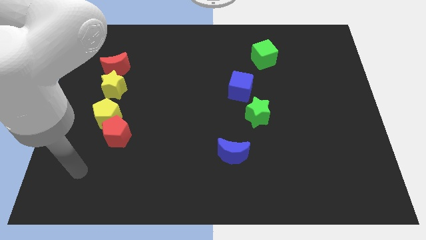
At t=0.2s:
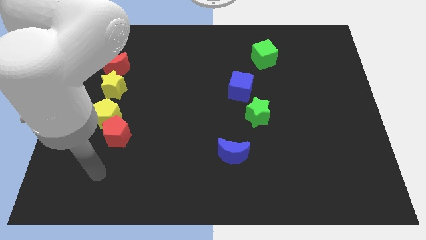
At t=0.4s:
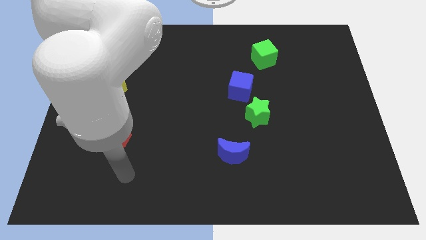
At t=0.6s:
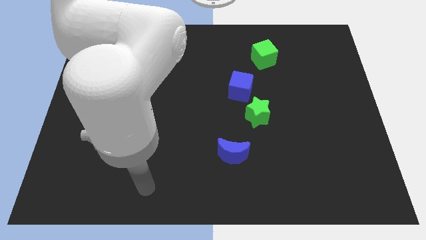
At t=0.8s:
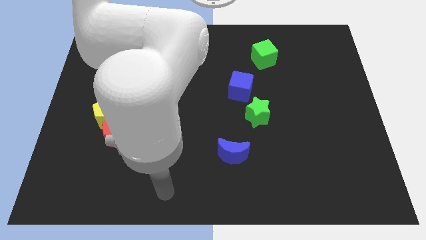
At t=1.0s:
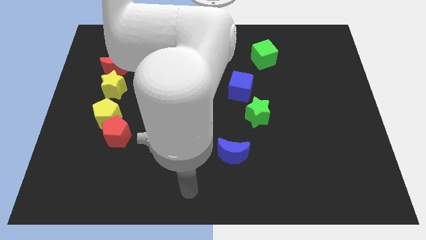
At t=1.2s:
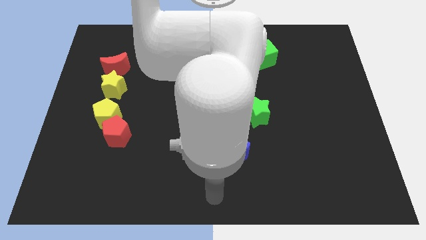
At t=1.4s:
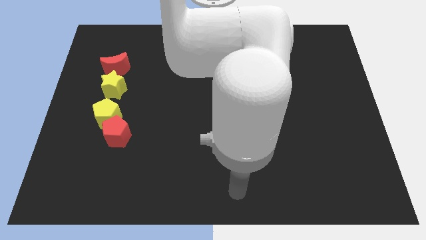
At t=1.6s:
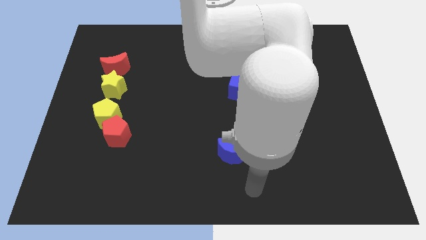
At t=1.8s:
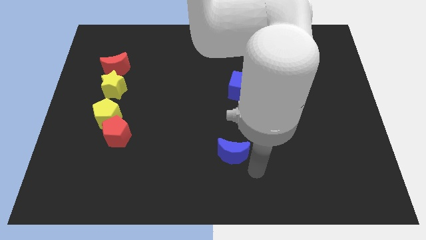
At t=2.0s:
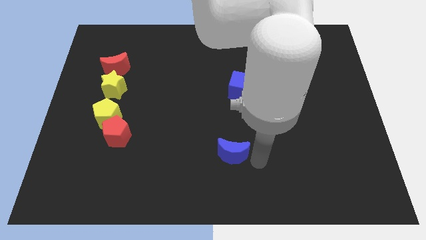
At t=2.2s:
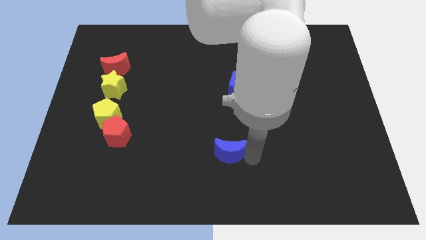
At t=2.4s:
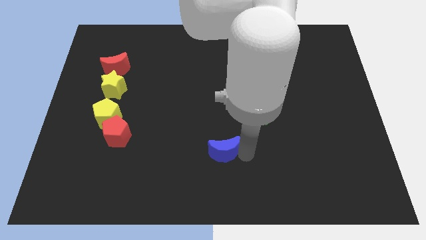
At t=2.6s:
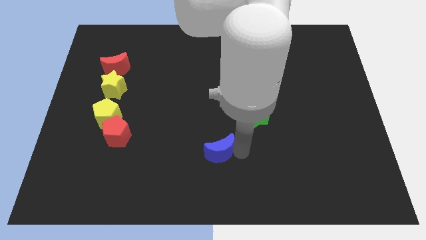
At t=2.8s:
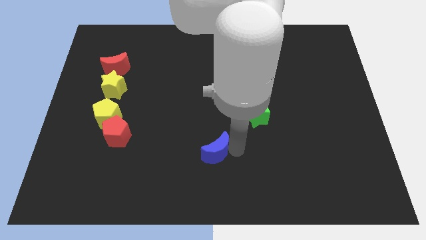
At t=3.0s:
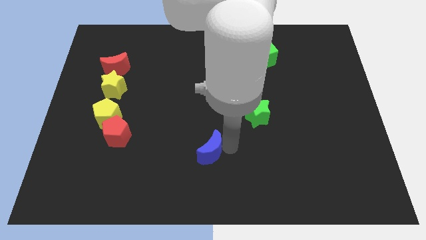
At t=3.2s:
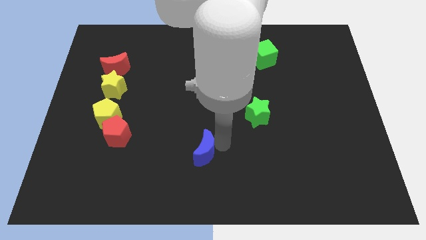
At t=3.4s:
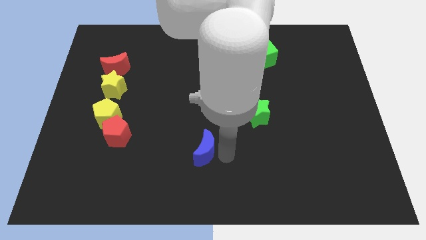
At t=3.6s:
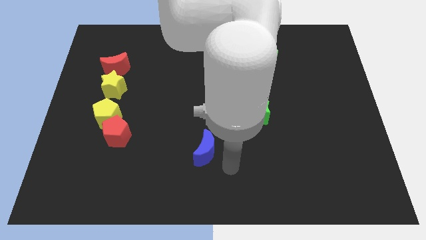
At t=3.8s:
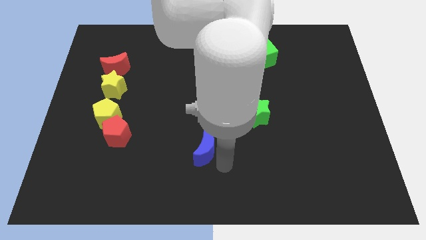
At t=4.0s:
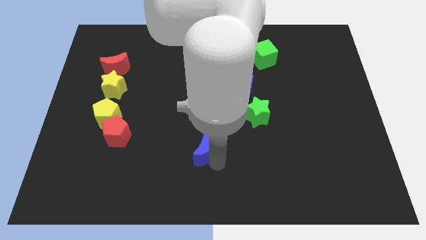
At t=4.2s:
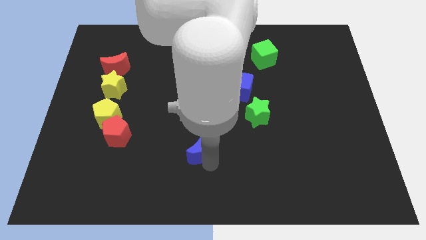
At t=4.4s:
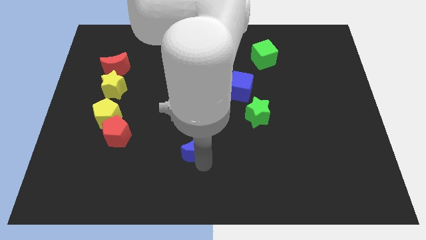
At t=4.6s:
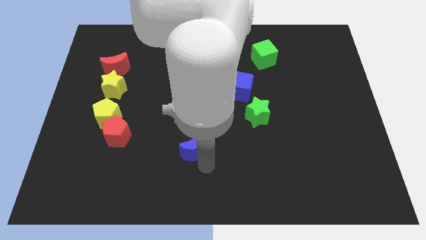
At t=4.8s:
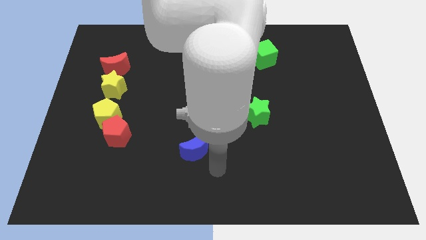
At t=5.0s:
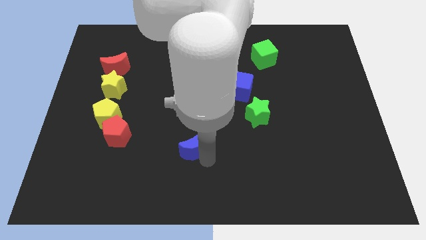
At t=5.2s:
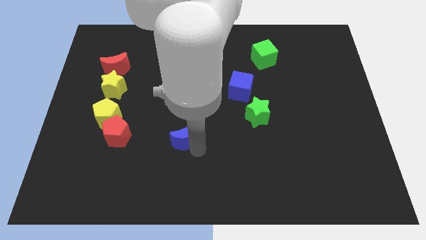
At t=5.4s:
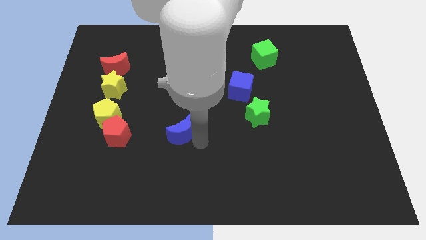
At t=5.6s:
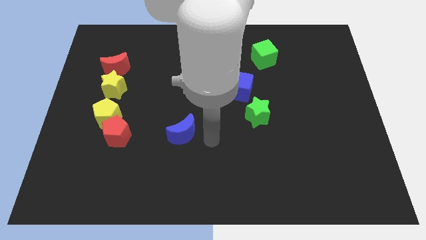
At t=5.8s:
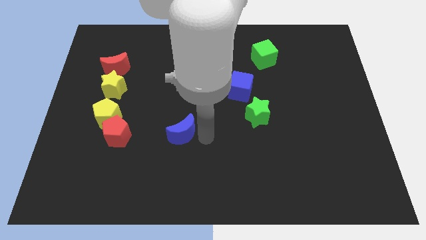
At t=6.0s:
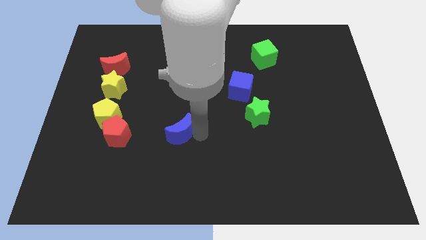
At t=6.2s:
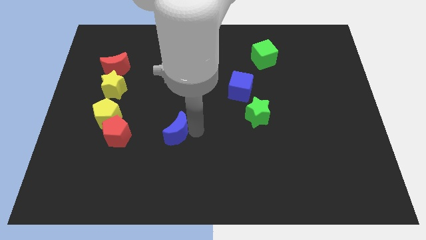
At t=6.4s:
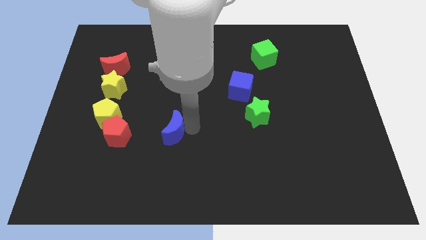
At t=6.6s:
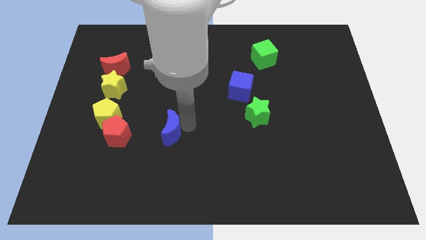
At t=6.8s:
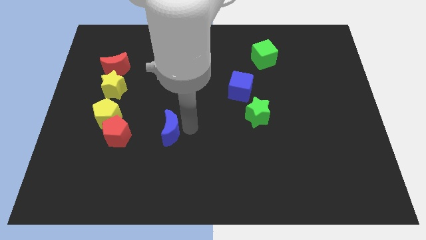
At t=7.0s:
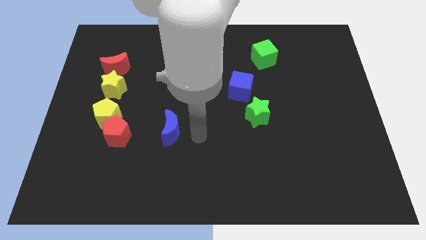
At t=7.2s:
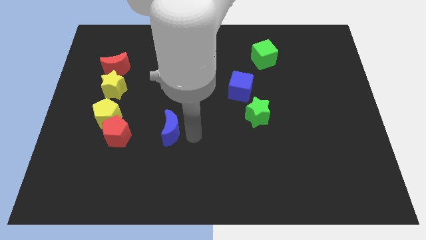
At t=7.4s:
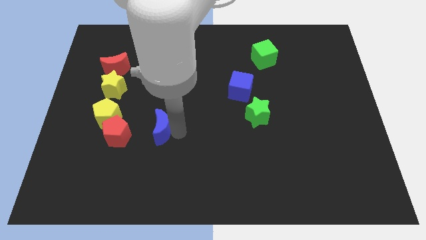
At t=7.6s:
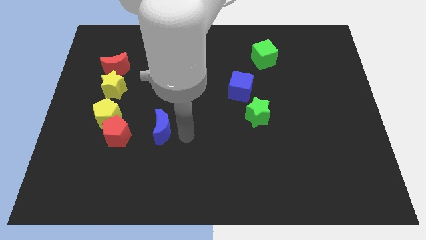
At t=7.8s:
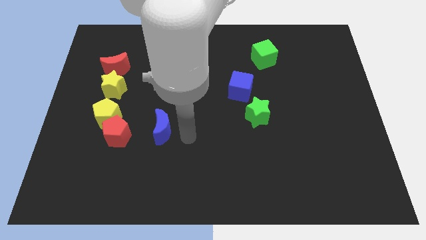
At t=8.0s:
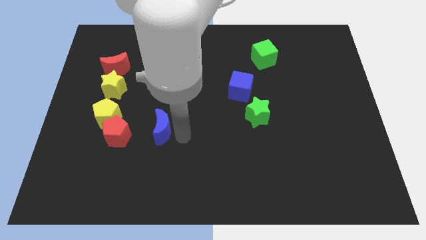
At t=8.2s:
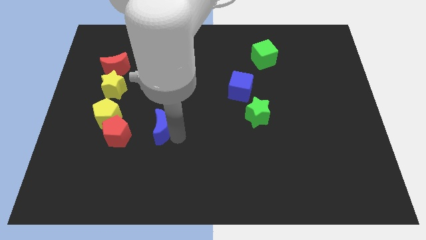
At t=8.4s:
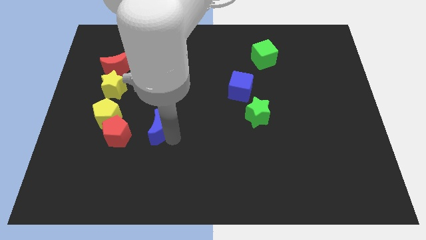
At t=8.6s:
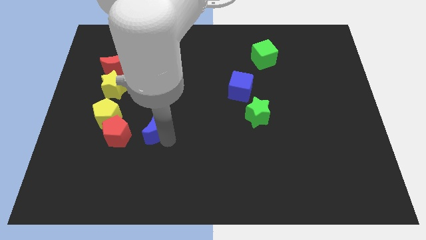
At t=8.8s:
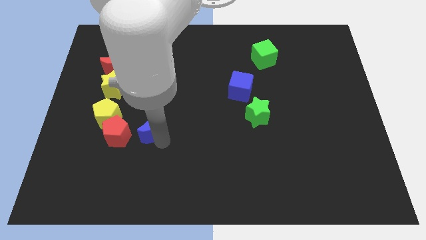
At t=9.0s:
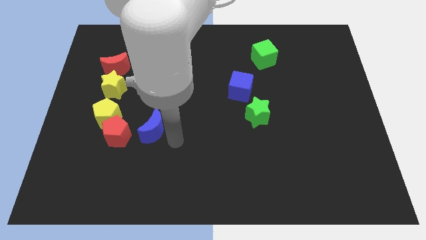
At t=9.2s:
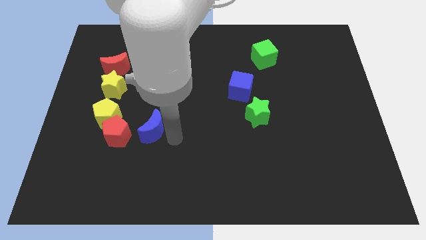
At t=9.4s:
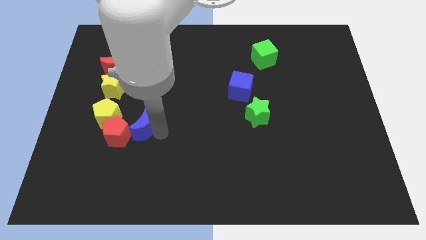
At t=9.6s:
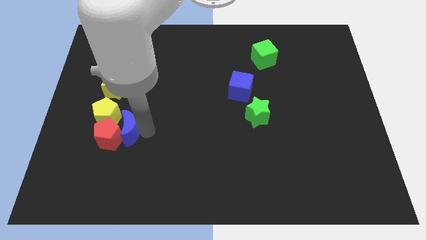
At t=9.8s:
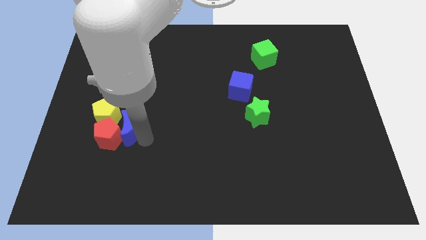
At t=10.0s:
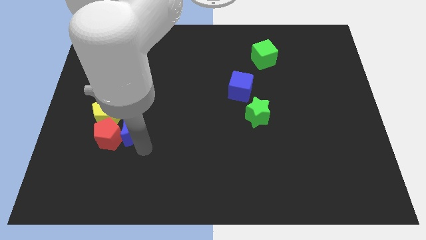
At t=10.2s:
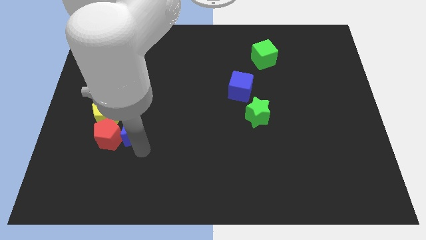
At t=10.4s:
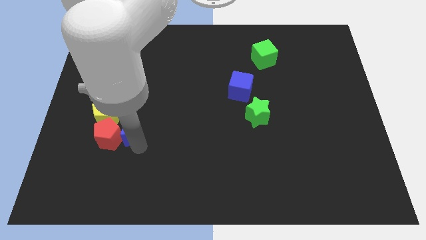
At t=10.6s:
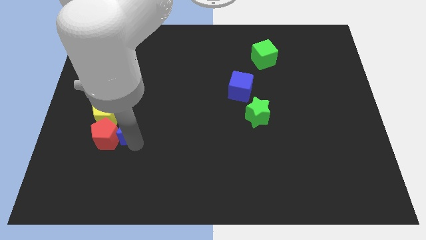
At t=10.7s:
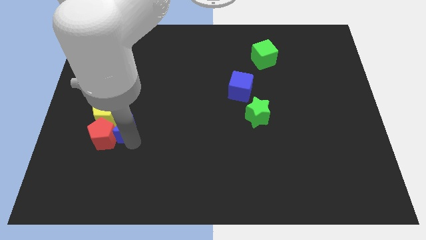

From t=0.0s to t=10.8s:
slide the blue moon close to the yellow pentagon

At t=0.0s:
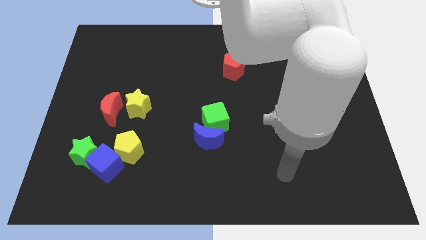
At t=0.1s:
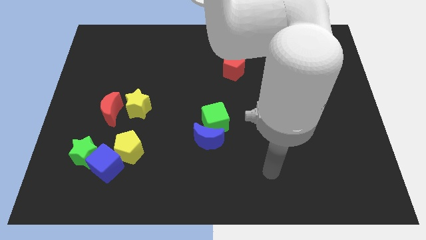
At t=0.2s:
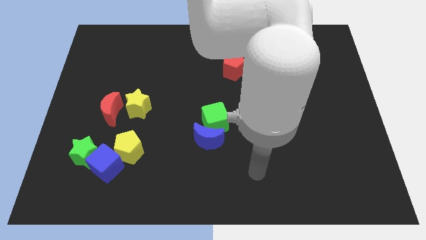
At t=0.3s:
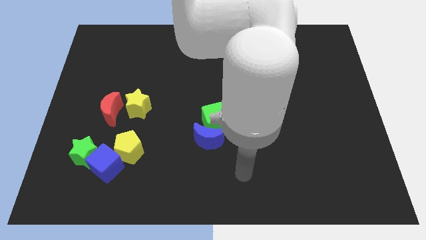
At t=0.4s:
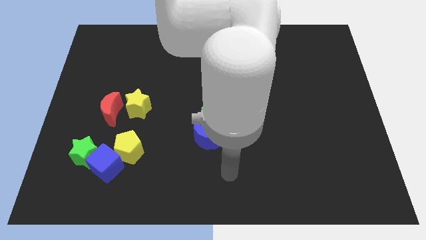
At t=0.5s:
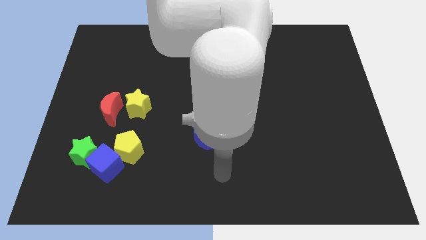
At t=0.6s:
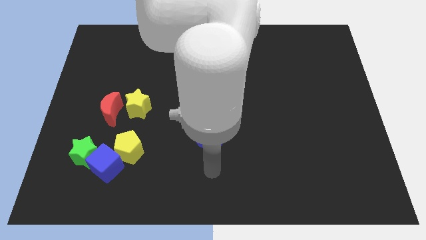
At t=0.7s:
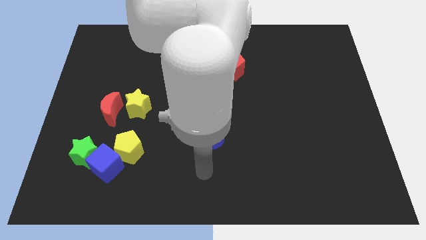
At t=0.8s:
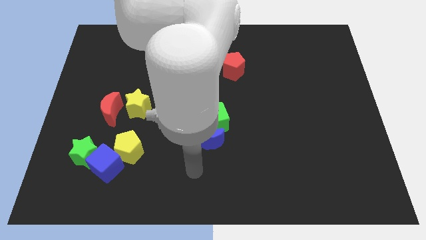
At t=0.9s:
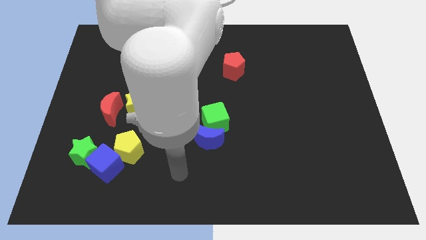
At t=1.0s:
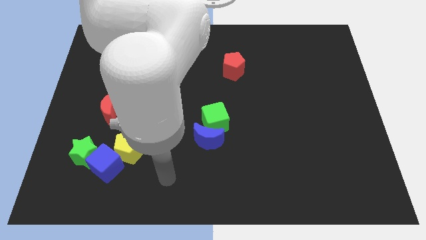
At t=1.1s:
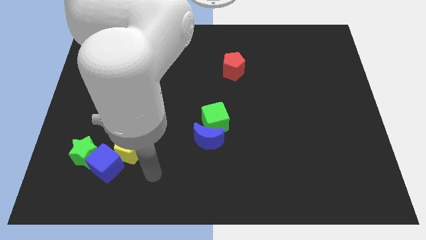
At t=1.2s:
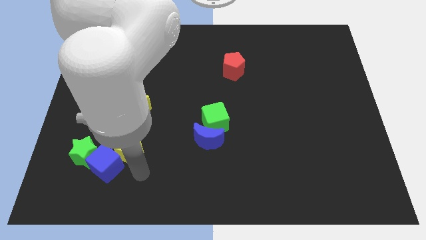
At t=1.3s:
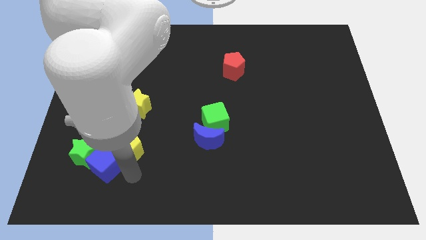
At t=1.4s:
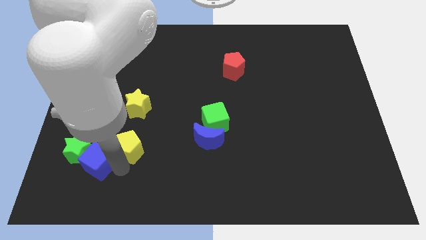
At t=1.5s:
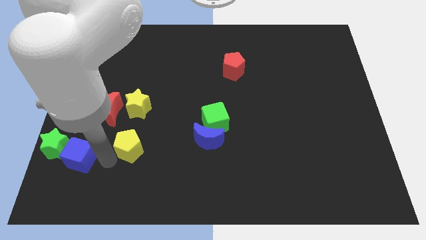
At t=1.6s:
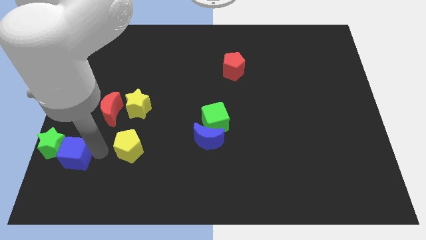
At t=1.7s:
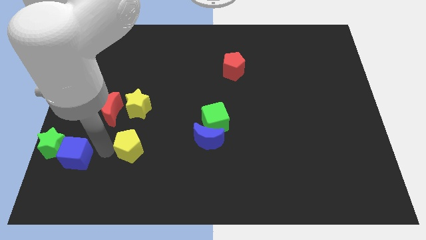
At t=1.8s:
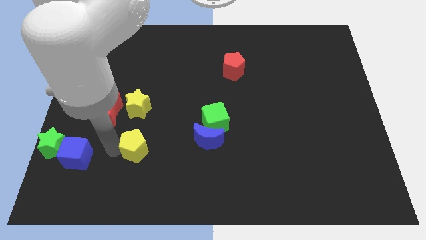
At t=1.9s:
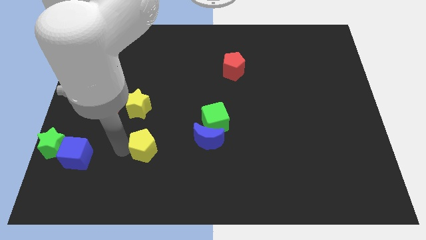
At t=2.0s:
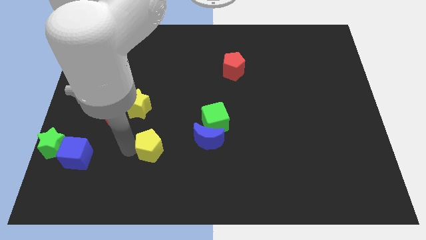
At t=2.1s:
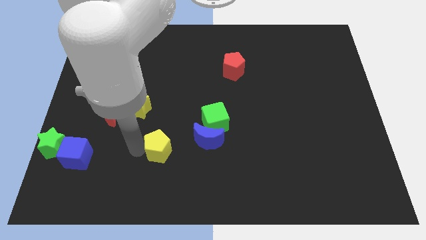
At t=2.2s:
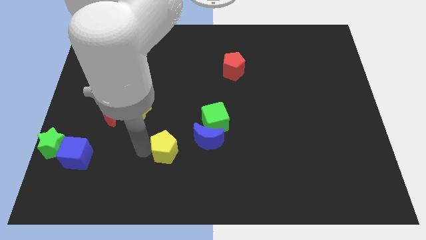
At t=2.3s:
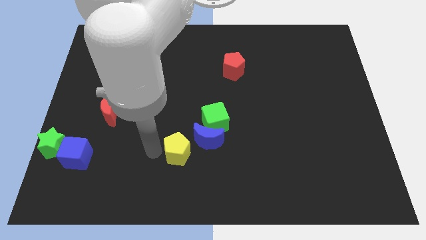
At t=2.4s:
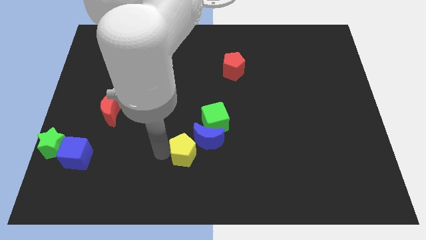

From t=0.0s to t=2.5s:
put the yellow pentagon close to the blue moon
